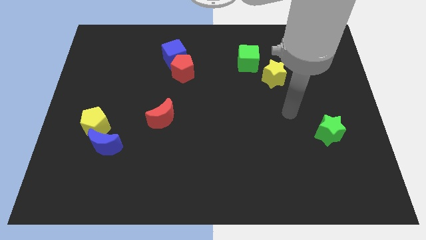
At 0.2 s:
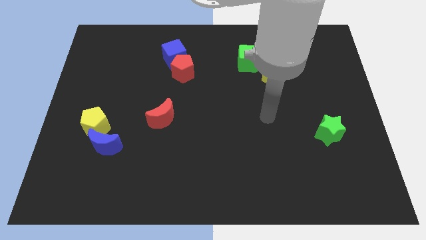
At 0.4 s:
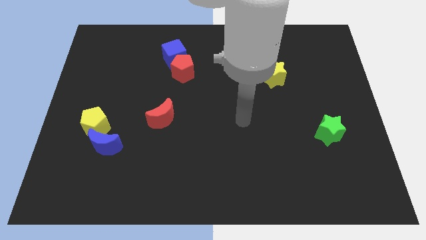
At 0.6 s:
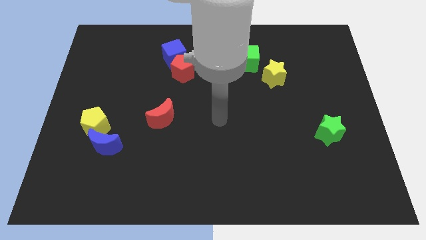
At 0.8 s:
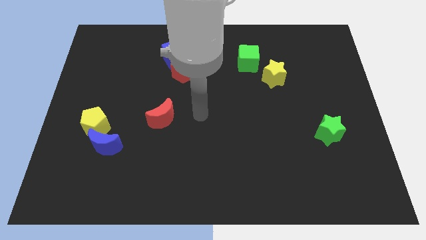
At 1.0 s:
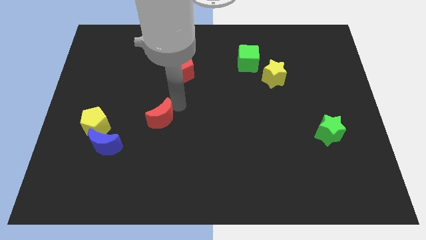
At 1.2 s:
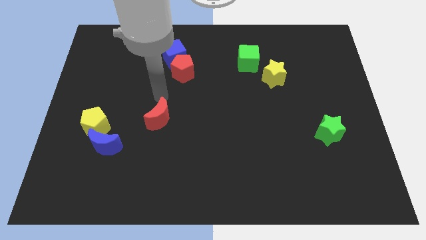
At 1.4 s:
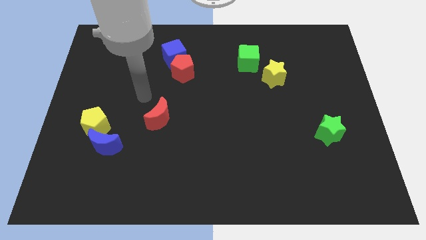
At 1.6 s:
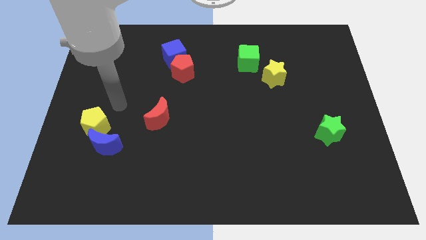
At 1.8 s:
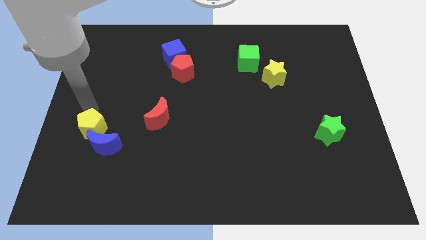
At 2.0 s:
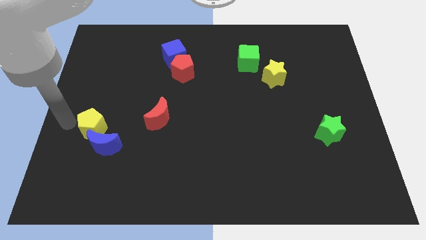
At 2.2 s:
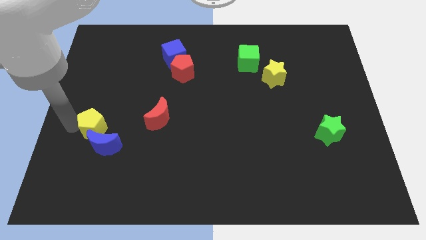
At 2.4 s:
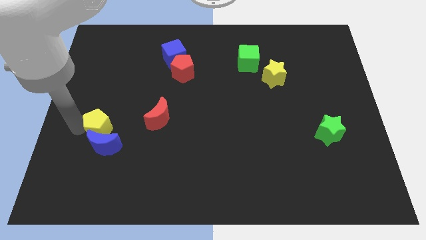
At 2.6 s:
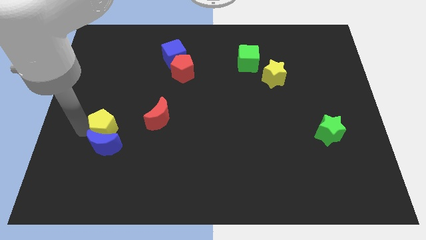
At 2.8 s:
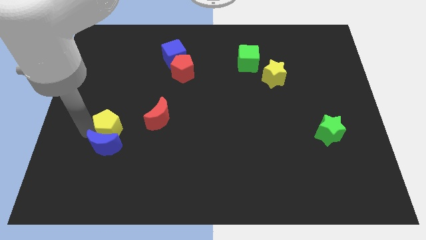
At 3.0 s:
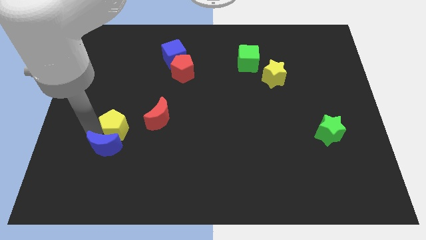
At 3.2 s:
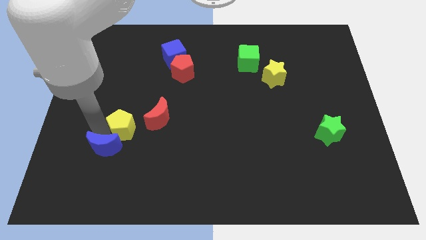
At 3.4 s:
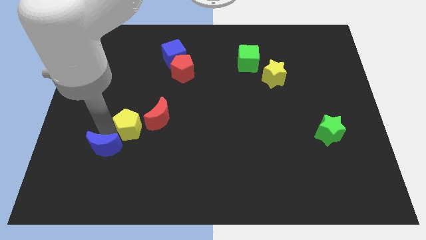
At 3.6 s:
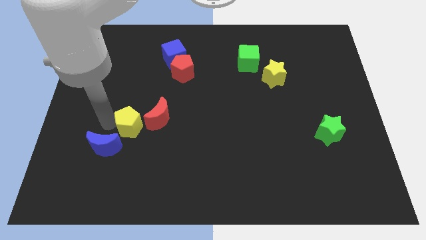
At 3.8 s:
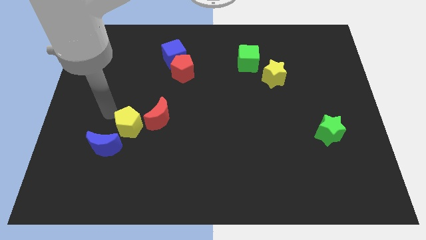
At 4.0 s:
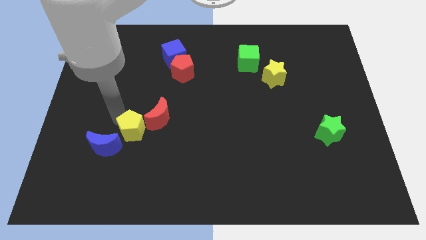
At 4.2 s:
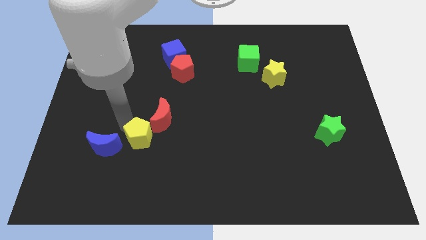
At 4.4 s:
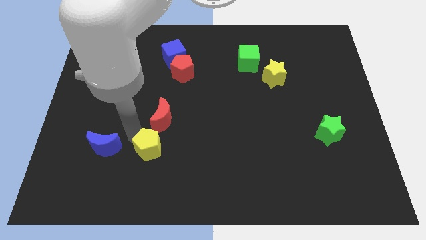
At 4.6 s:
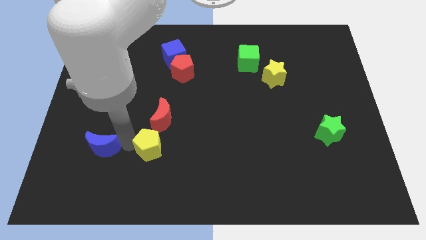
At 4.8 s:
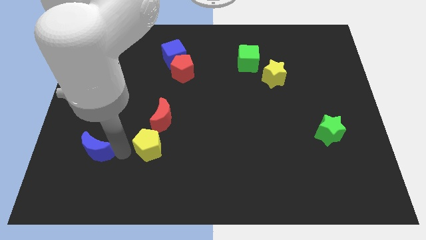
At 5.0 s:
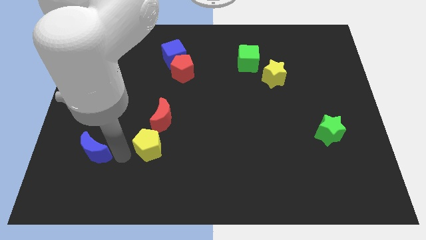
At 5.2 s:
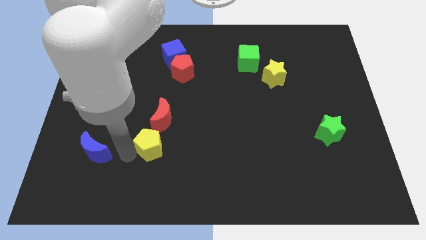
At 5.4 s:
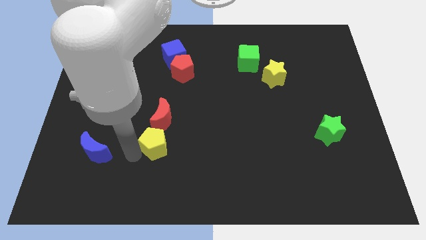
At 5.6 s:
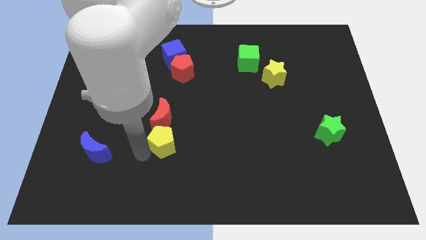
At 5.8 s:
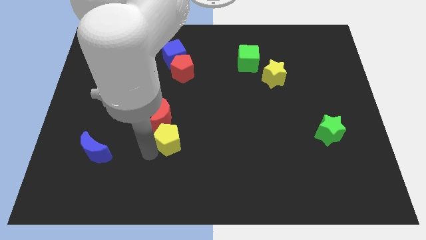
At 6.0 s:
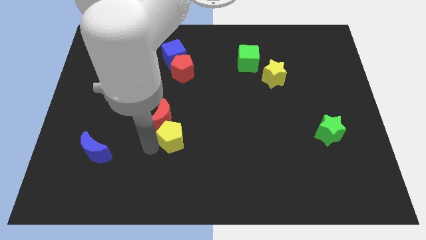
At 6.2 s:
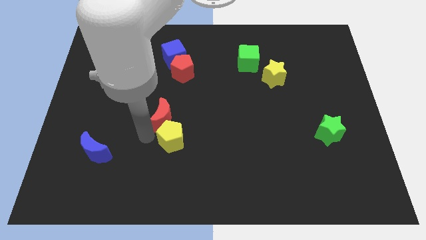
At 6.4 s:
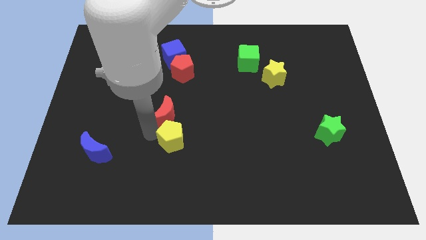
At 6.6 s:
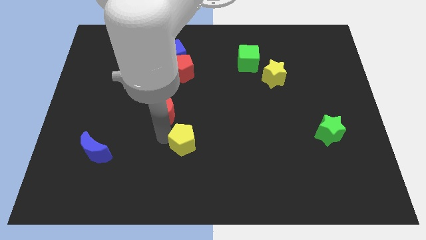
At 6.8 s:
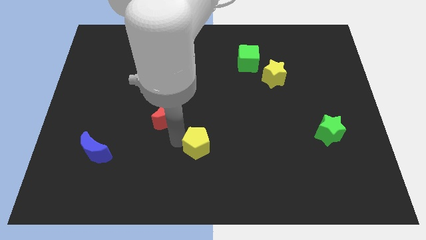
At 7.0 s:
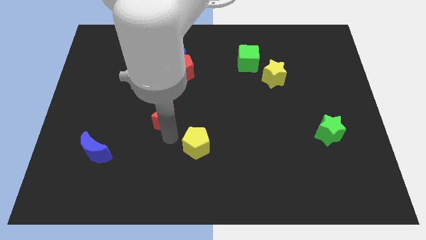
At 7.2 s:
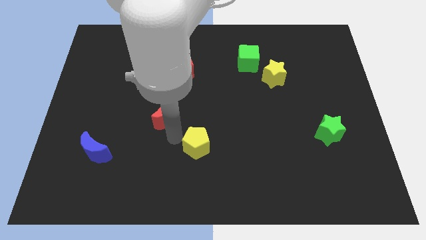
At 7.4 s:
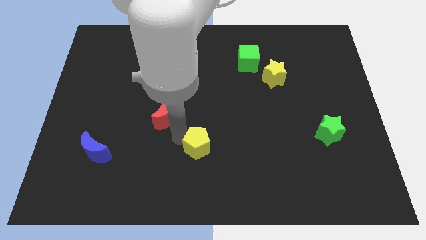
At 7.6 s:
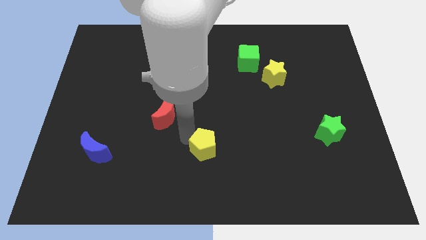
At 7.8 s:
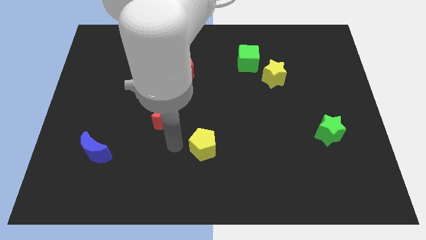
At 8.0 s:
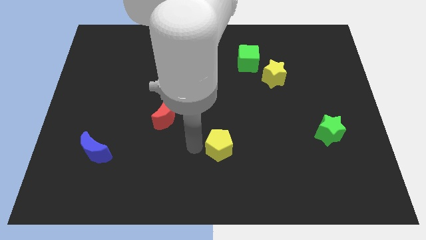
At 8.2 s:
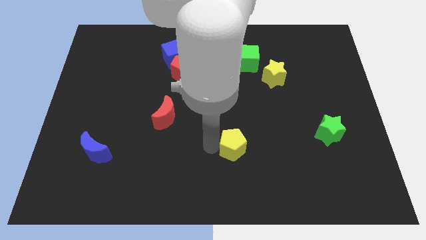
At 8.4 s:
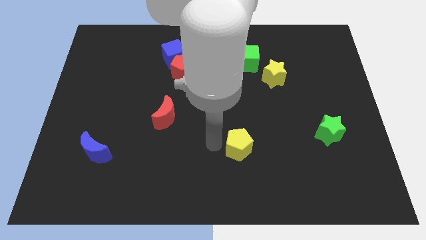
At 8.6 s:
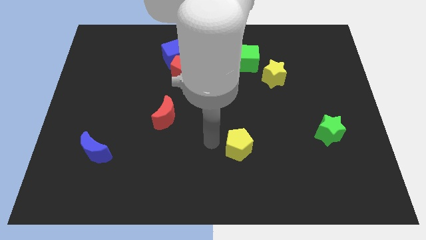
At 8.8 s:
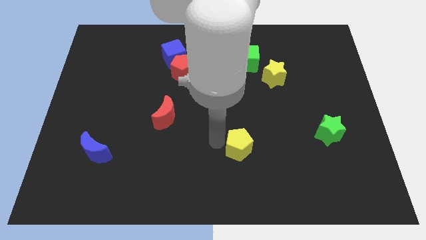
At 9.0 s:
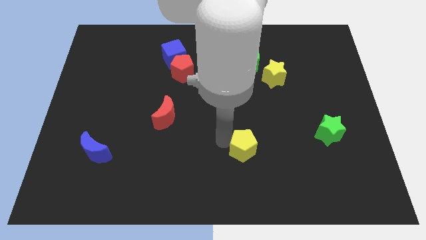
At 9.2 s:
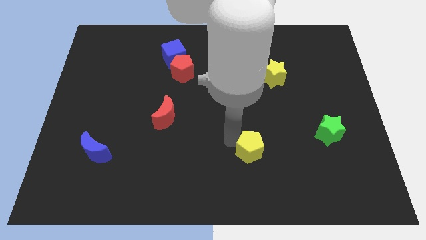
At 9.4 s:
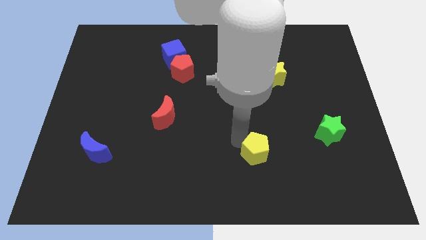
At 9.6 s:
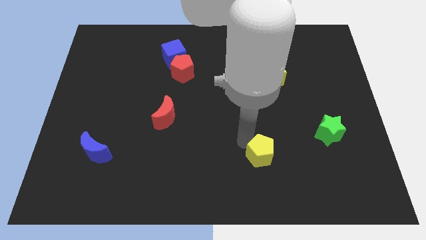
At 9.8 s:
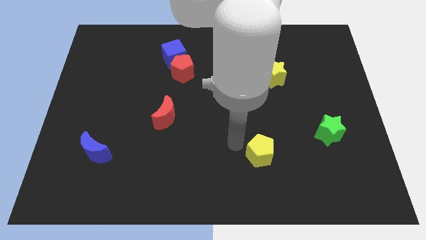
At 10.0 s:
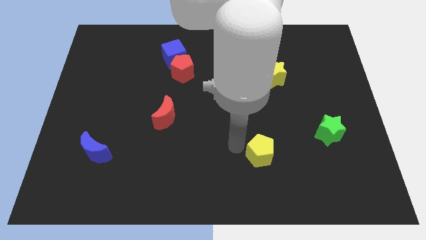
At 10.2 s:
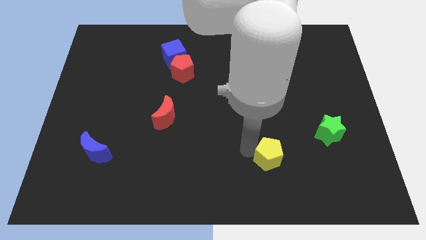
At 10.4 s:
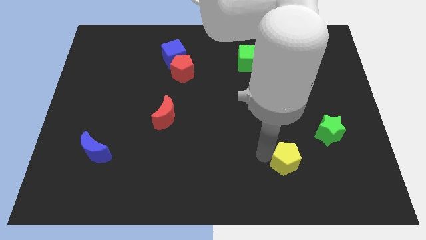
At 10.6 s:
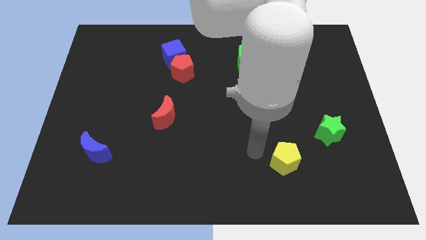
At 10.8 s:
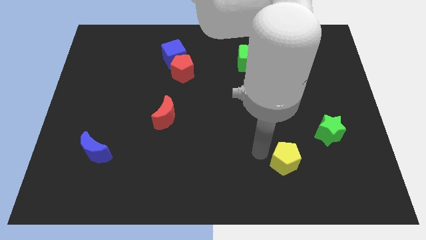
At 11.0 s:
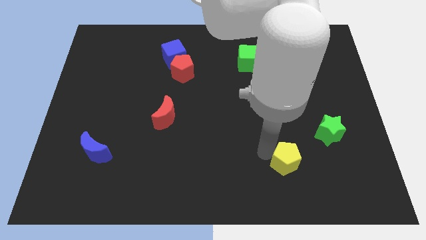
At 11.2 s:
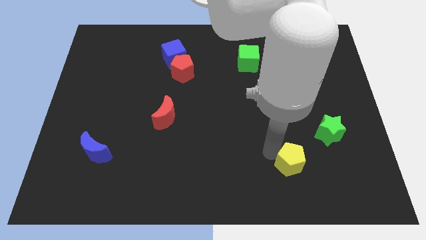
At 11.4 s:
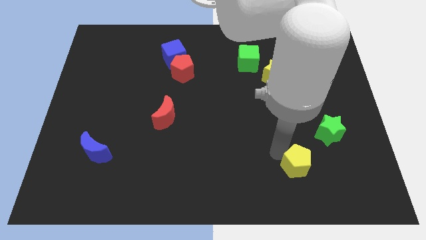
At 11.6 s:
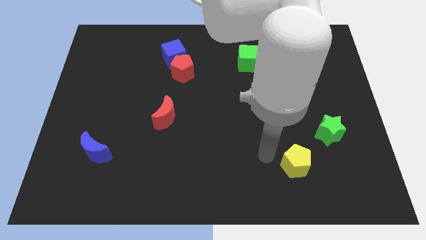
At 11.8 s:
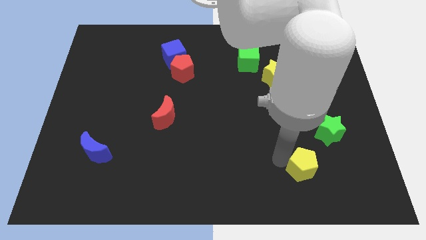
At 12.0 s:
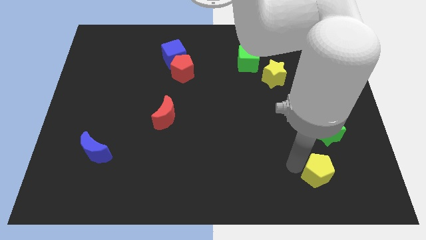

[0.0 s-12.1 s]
move the yellow pentagon to the bottom of the green star

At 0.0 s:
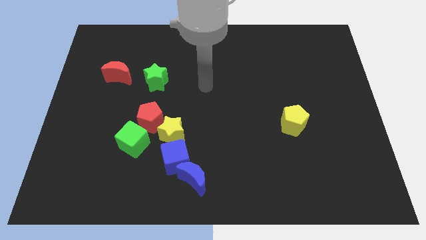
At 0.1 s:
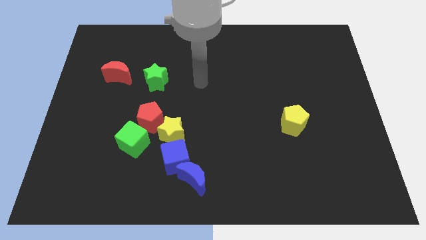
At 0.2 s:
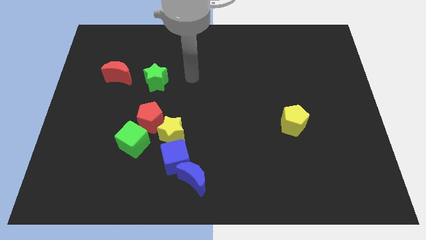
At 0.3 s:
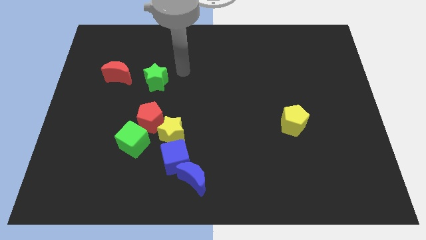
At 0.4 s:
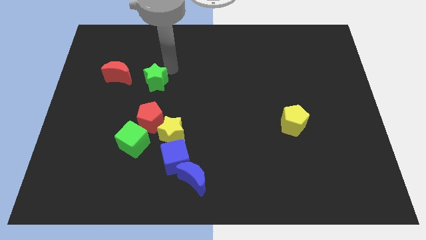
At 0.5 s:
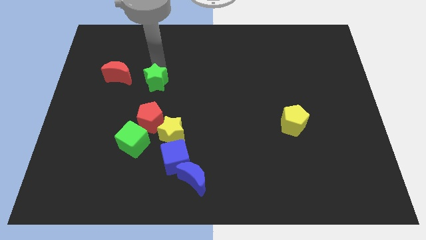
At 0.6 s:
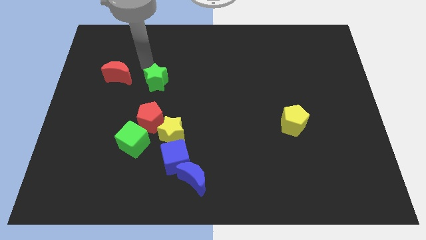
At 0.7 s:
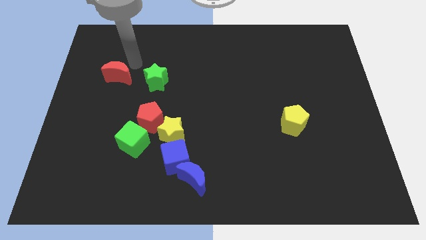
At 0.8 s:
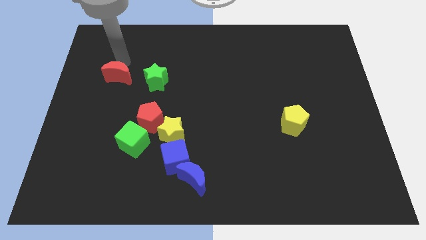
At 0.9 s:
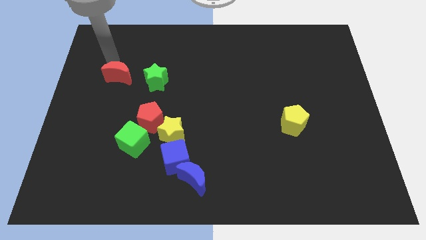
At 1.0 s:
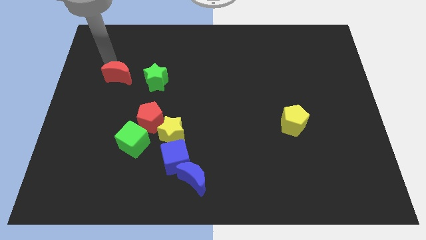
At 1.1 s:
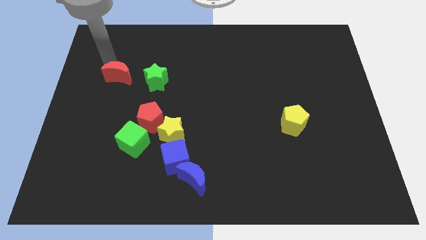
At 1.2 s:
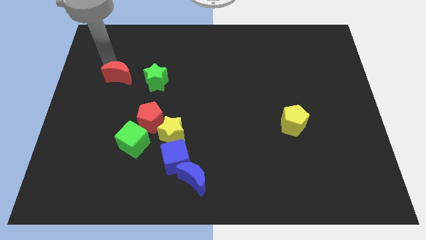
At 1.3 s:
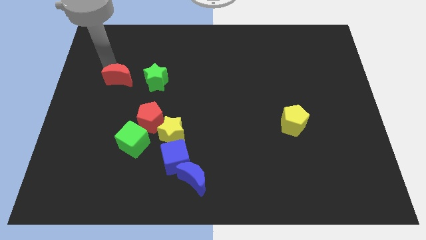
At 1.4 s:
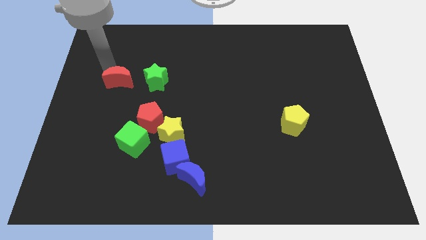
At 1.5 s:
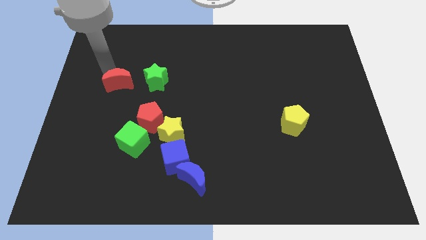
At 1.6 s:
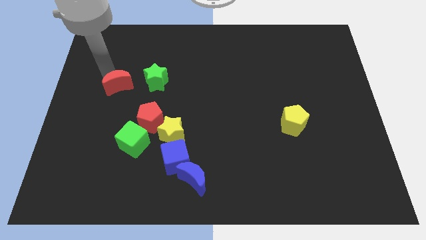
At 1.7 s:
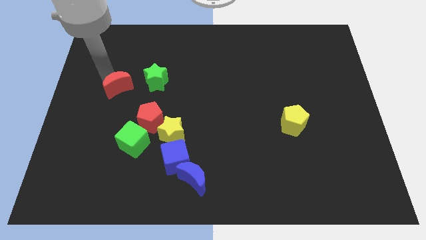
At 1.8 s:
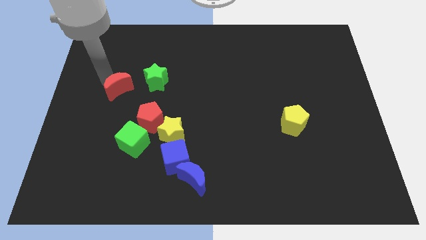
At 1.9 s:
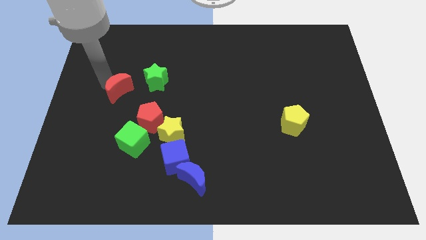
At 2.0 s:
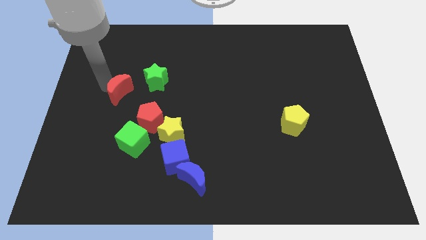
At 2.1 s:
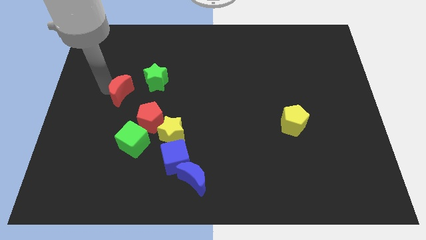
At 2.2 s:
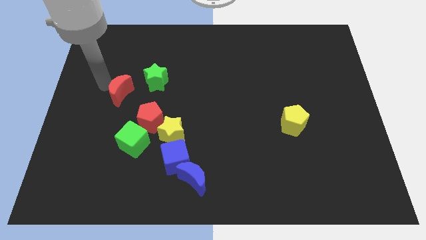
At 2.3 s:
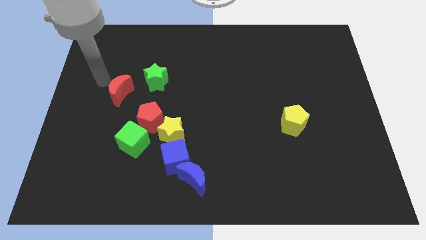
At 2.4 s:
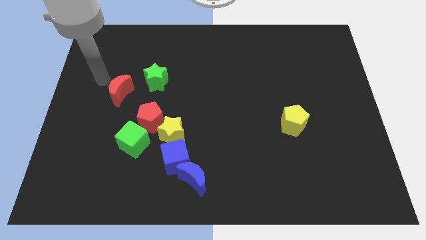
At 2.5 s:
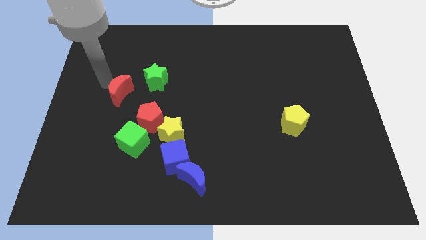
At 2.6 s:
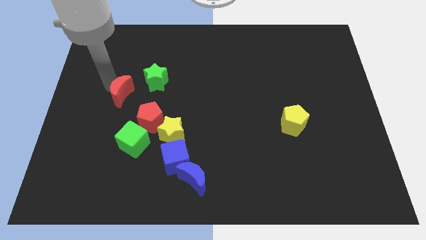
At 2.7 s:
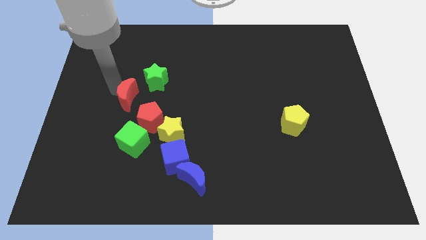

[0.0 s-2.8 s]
put the red moon to the top of the green cube
